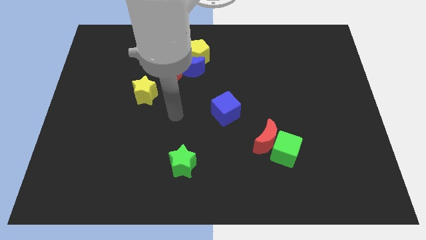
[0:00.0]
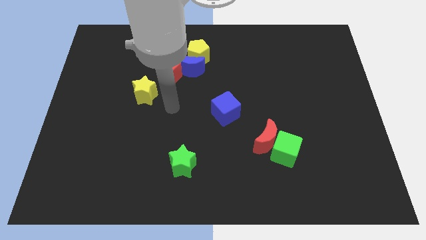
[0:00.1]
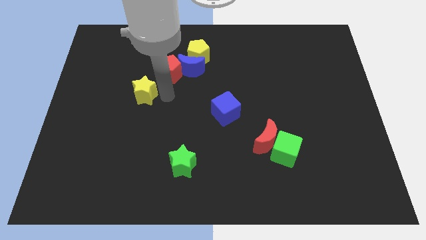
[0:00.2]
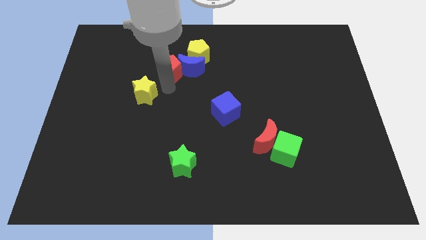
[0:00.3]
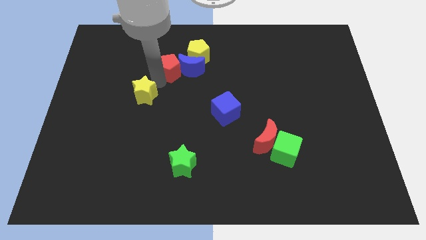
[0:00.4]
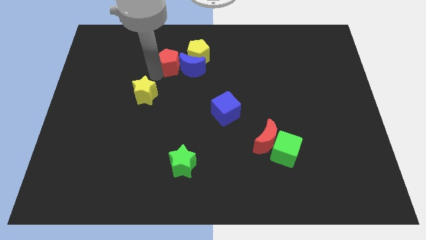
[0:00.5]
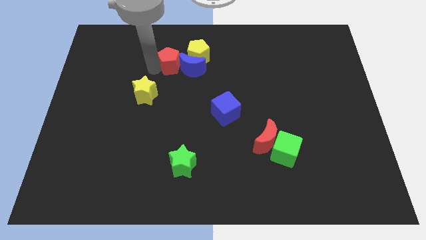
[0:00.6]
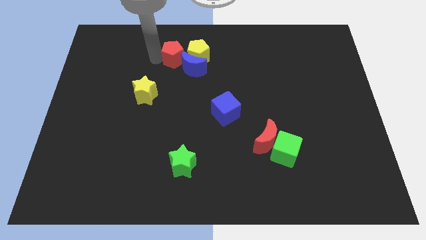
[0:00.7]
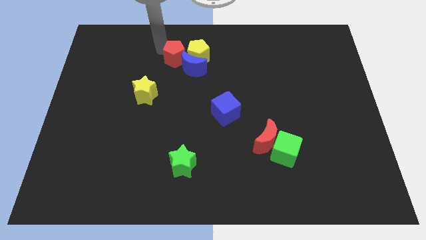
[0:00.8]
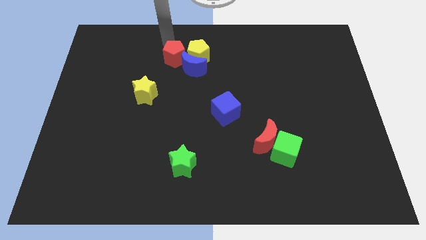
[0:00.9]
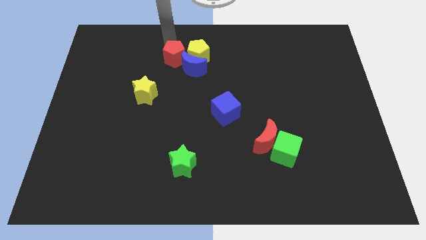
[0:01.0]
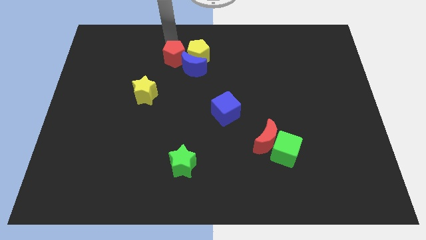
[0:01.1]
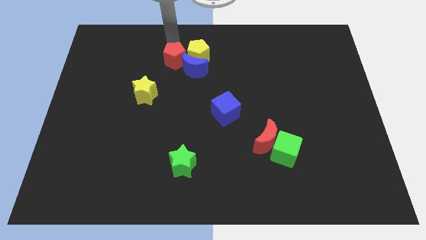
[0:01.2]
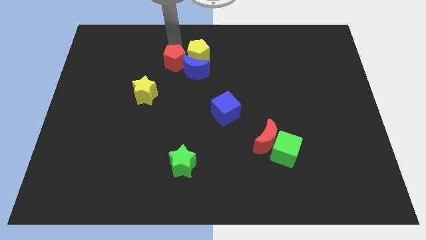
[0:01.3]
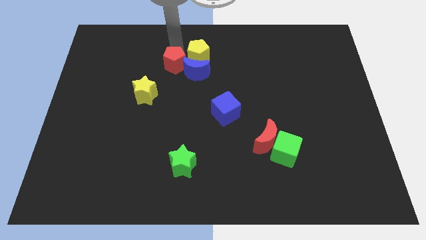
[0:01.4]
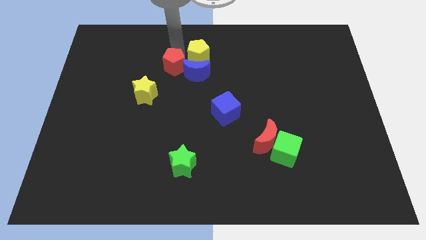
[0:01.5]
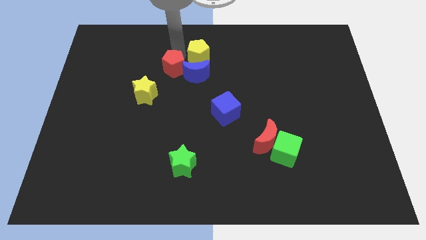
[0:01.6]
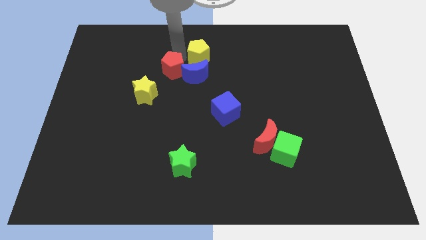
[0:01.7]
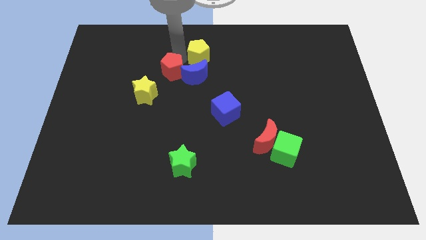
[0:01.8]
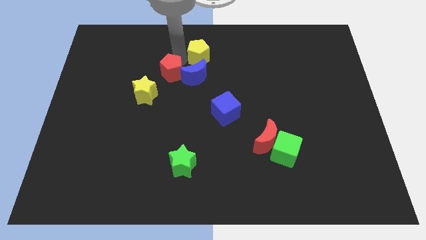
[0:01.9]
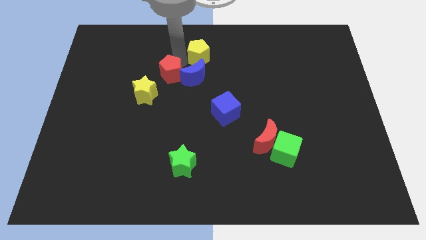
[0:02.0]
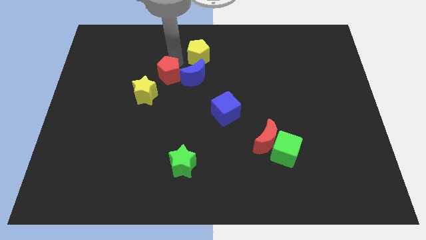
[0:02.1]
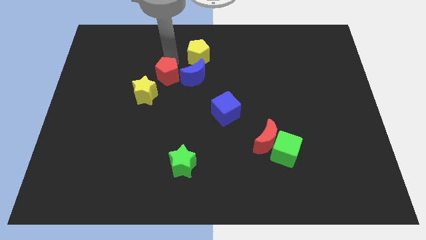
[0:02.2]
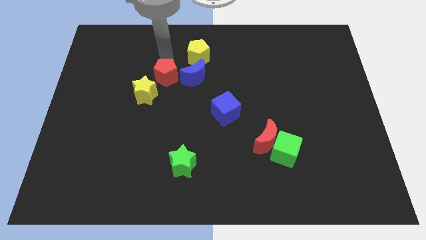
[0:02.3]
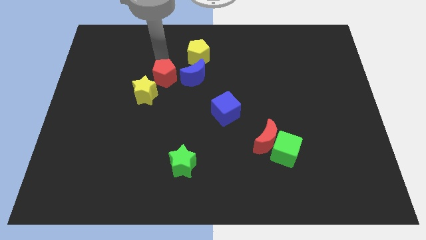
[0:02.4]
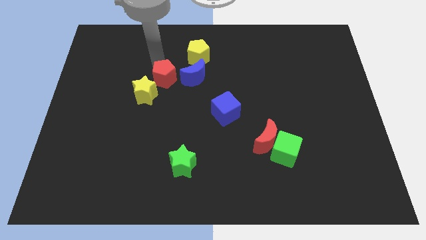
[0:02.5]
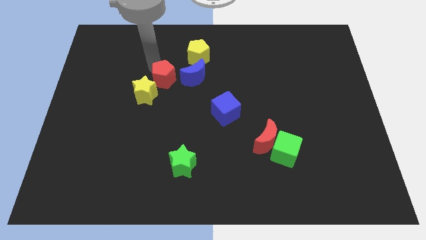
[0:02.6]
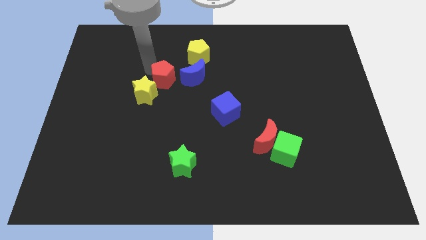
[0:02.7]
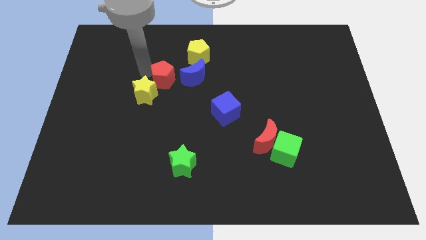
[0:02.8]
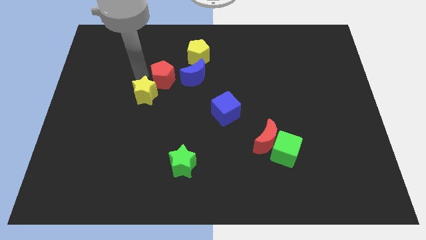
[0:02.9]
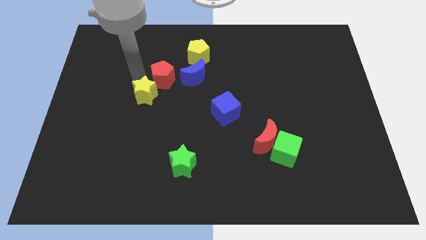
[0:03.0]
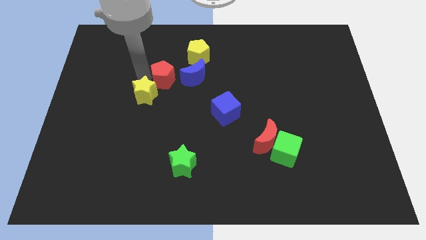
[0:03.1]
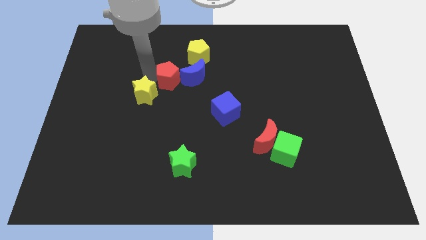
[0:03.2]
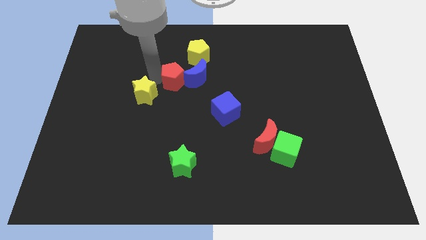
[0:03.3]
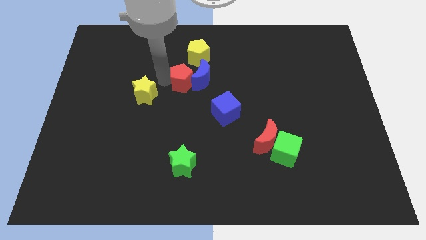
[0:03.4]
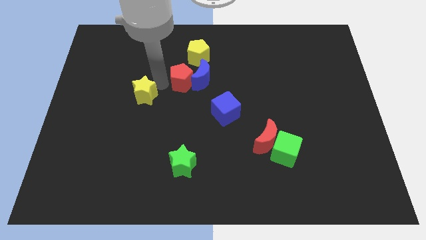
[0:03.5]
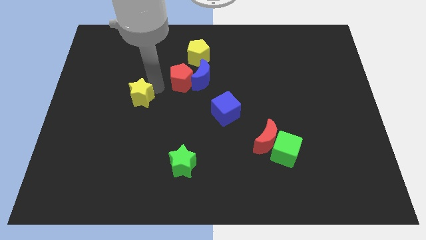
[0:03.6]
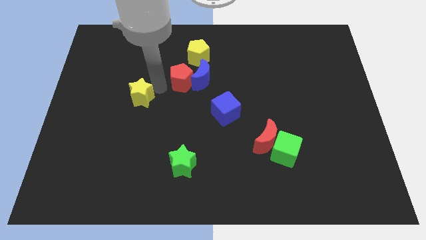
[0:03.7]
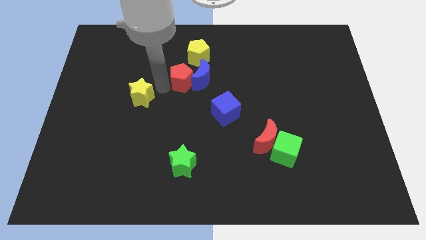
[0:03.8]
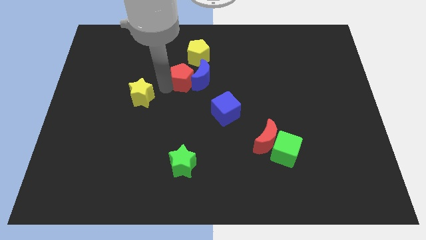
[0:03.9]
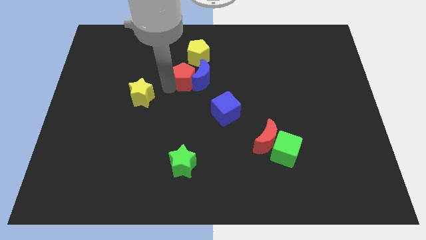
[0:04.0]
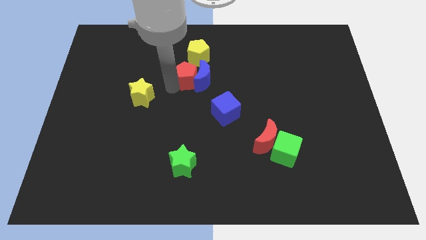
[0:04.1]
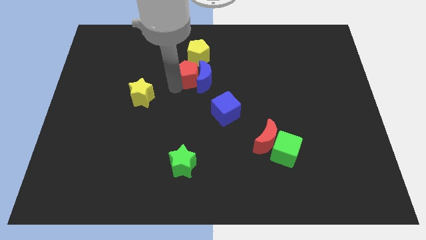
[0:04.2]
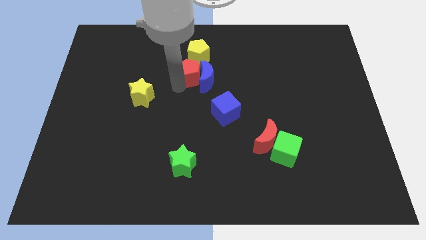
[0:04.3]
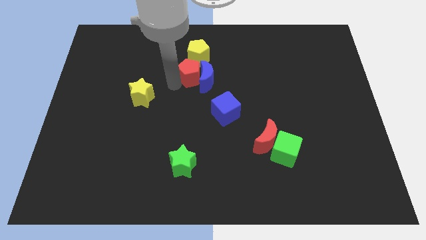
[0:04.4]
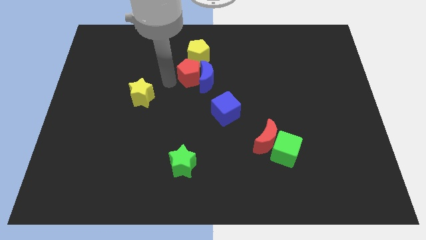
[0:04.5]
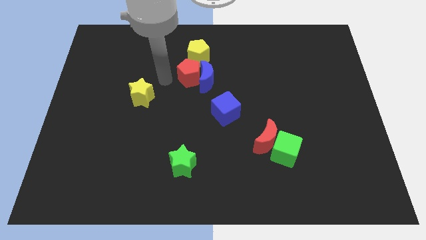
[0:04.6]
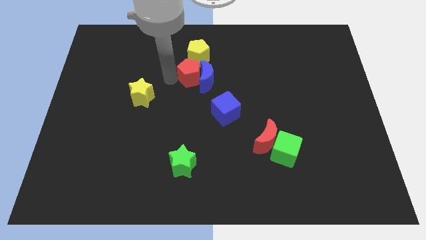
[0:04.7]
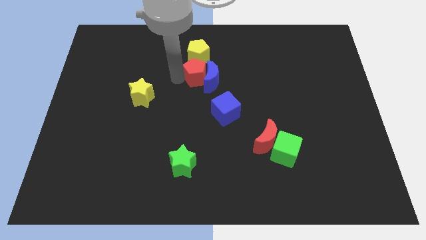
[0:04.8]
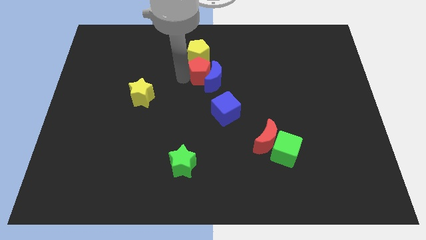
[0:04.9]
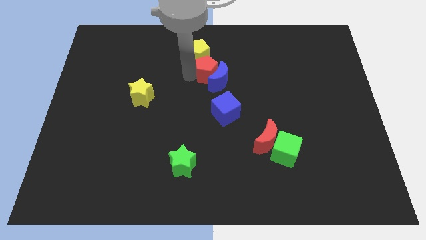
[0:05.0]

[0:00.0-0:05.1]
put the red pentagon above the blue cube

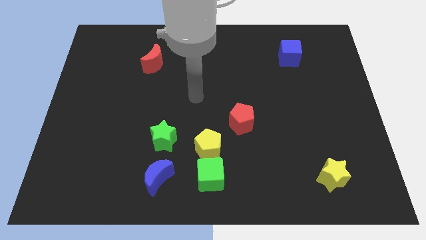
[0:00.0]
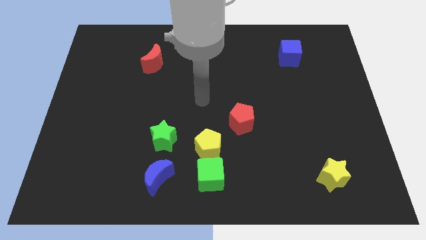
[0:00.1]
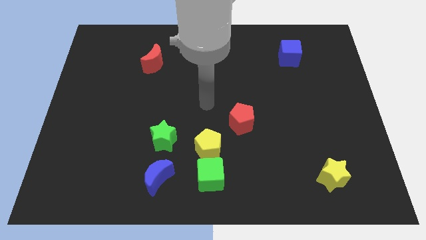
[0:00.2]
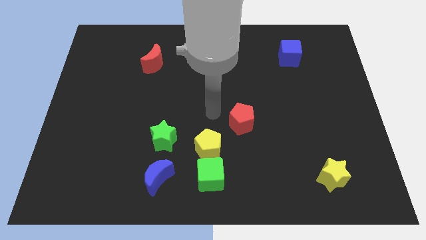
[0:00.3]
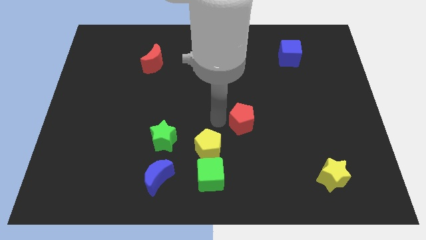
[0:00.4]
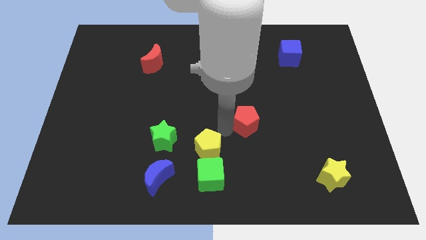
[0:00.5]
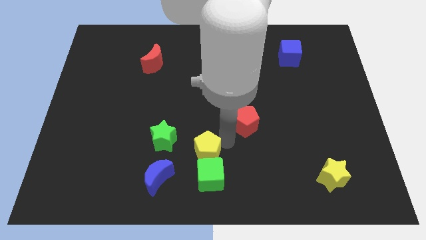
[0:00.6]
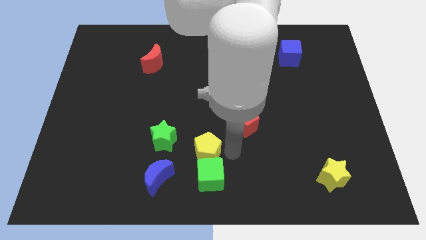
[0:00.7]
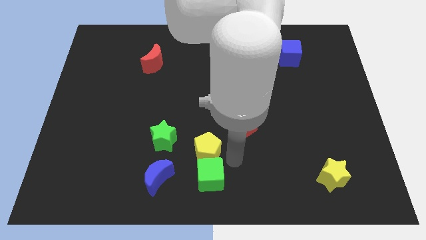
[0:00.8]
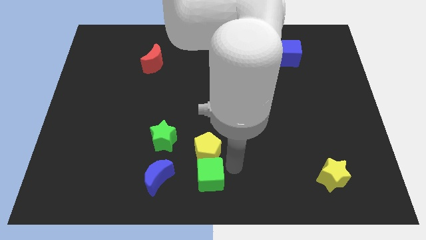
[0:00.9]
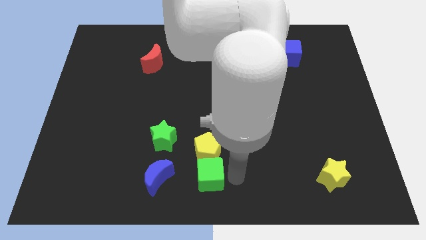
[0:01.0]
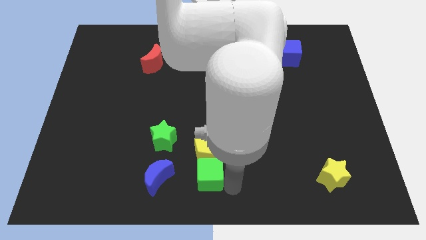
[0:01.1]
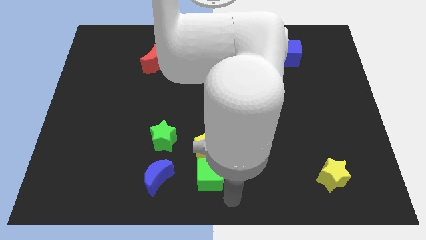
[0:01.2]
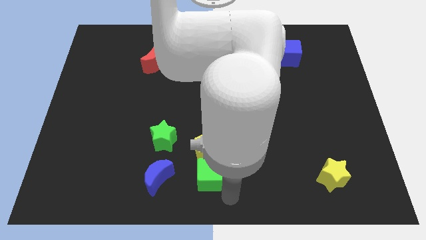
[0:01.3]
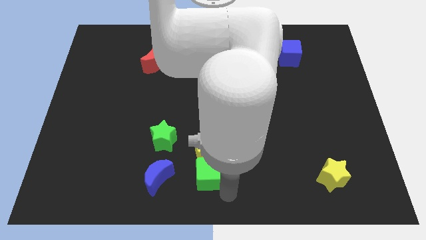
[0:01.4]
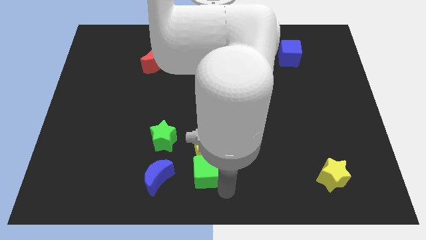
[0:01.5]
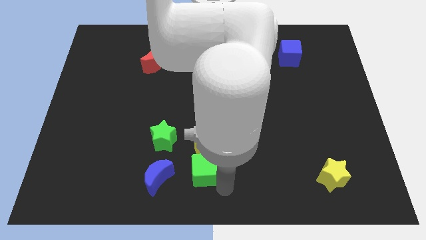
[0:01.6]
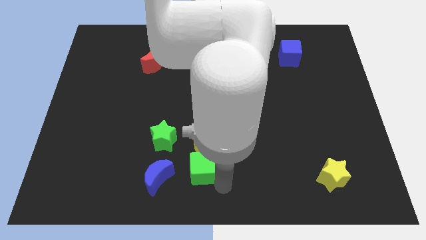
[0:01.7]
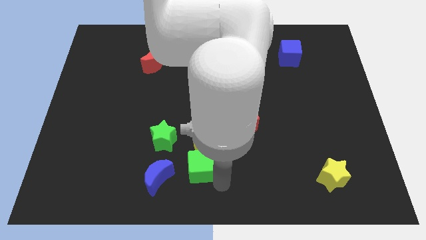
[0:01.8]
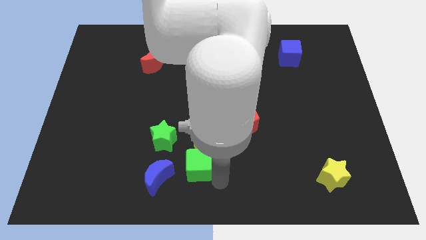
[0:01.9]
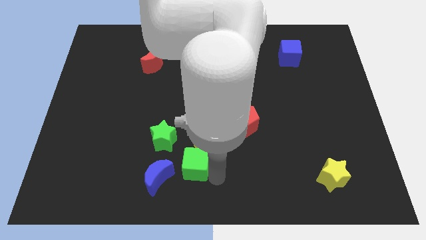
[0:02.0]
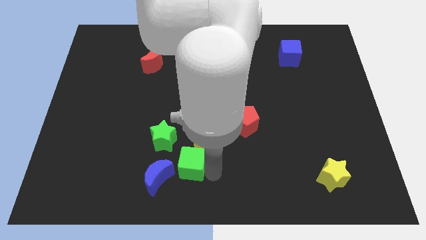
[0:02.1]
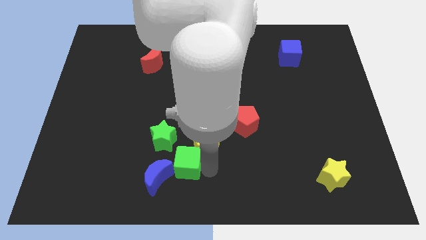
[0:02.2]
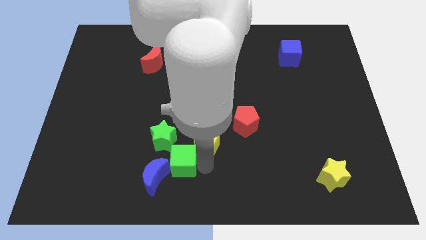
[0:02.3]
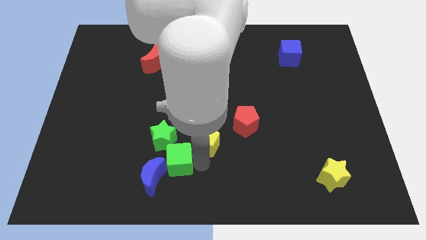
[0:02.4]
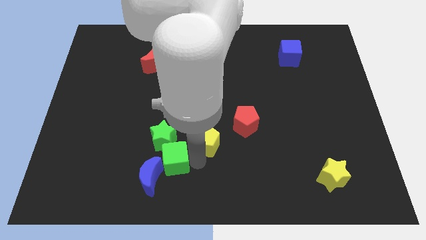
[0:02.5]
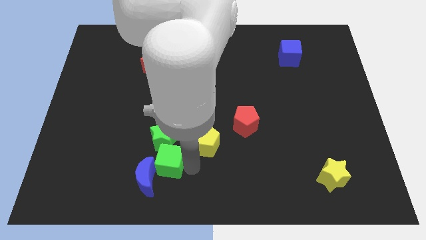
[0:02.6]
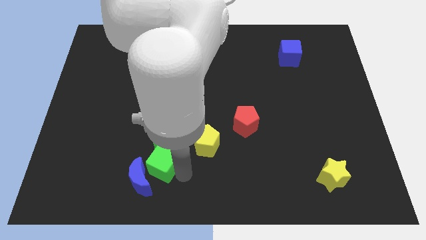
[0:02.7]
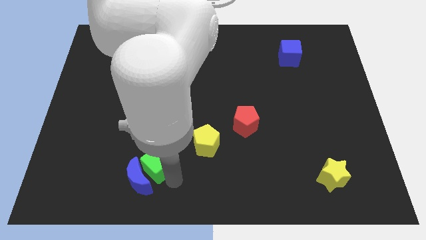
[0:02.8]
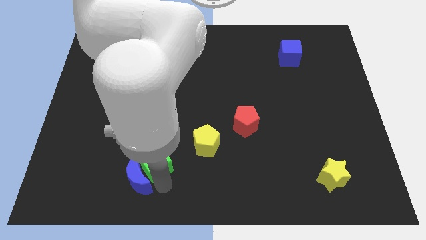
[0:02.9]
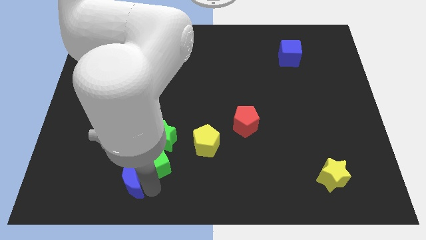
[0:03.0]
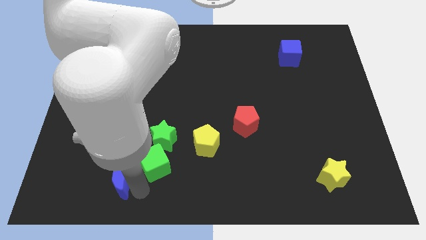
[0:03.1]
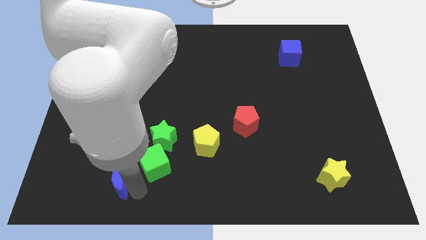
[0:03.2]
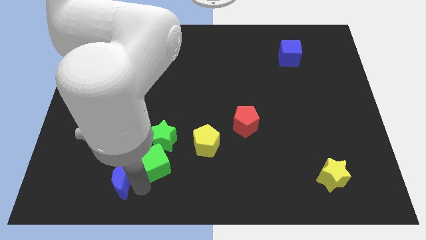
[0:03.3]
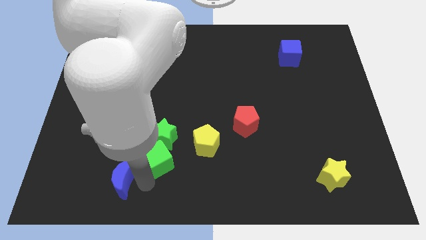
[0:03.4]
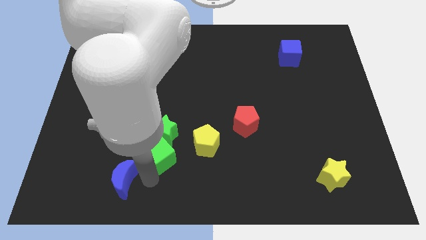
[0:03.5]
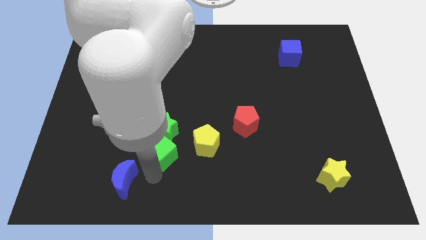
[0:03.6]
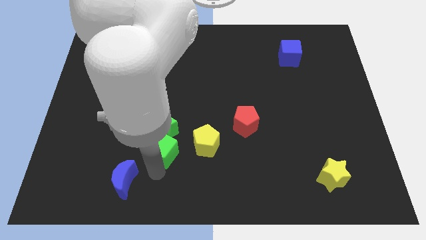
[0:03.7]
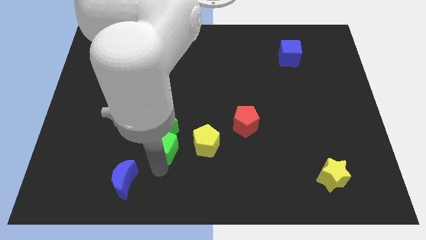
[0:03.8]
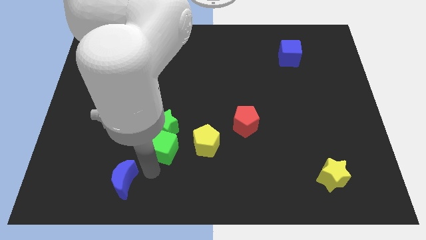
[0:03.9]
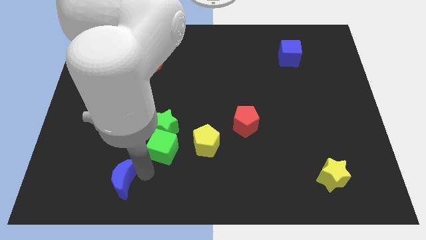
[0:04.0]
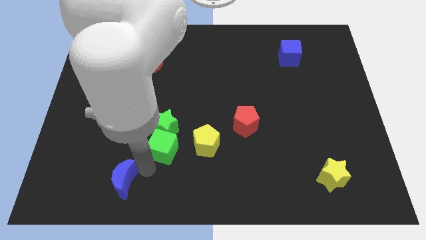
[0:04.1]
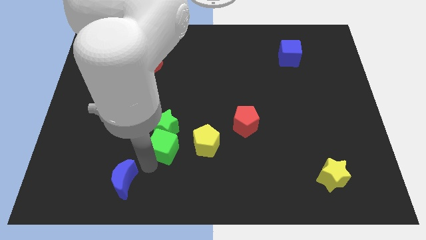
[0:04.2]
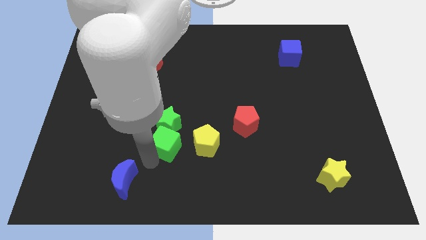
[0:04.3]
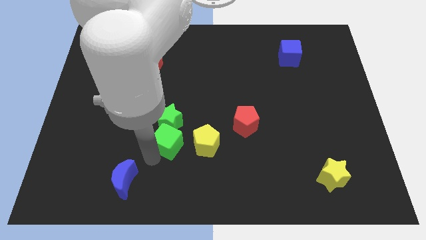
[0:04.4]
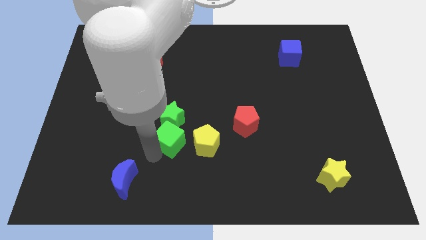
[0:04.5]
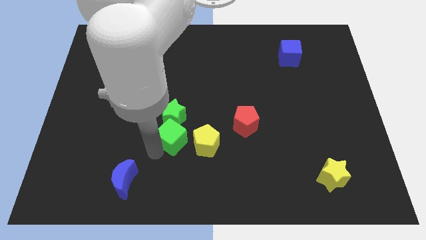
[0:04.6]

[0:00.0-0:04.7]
put the green cube diagonally up and to the left of the yellow pentagon
